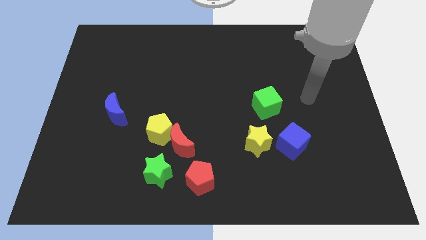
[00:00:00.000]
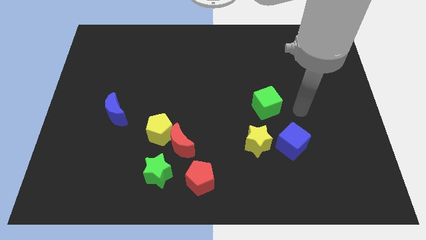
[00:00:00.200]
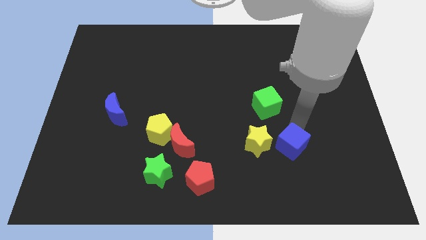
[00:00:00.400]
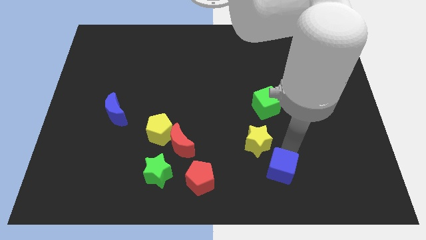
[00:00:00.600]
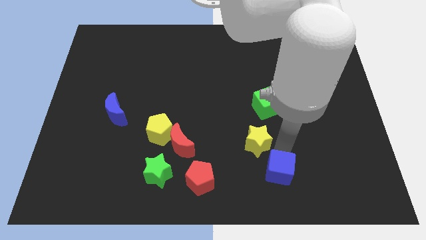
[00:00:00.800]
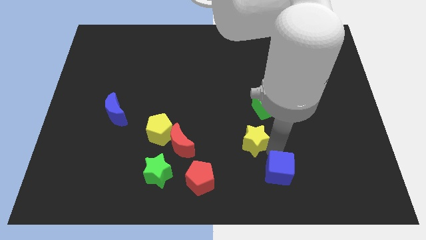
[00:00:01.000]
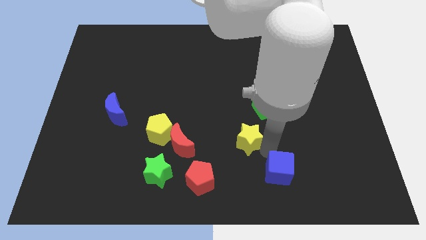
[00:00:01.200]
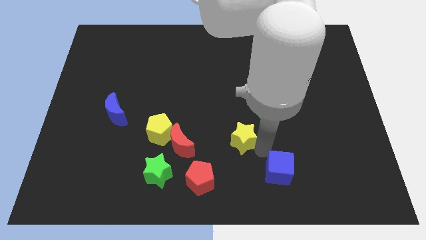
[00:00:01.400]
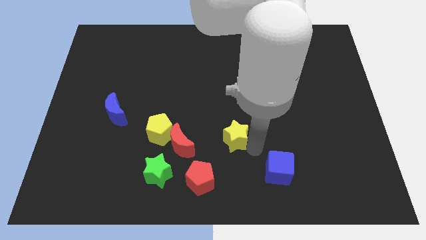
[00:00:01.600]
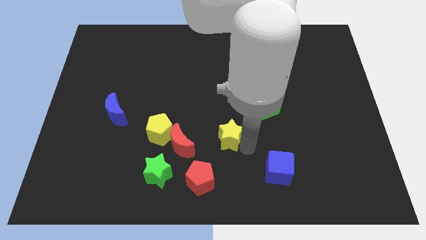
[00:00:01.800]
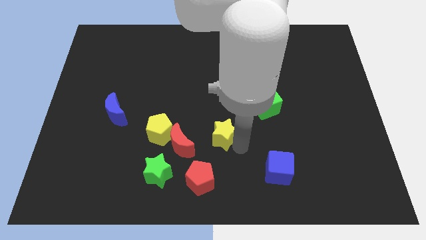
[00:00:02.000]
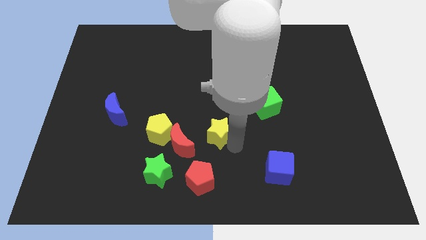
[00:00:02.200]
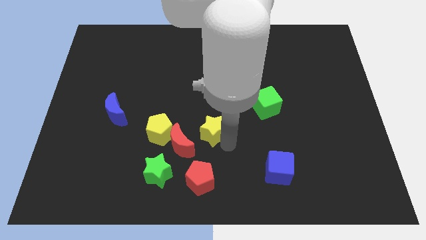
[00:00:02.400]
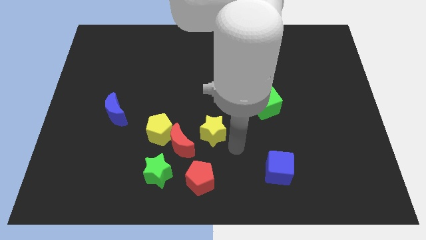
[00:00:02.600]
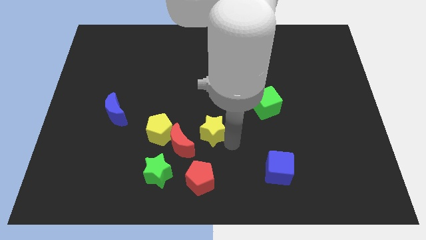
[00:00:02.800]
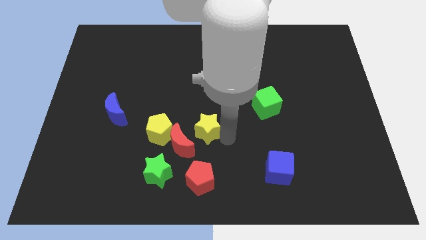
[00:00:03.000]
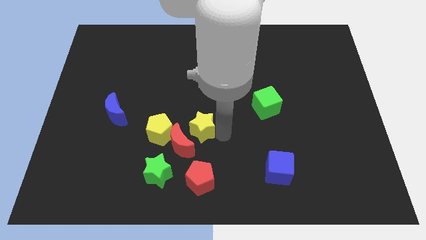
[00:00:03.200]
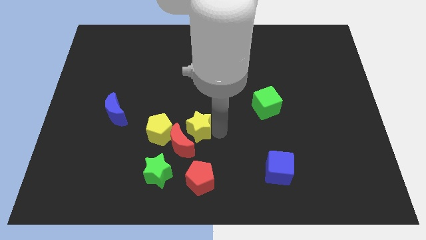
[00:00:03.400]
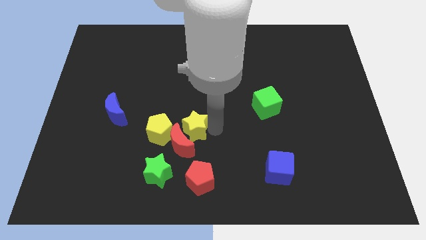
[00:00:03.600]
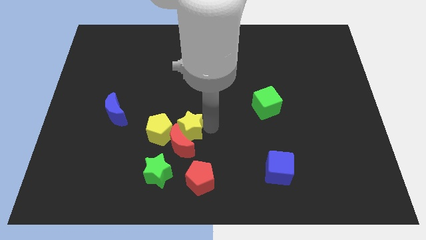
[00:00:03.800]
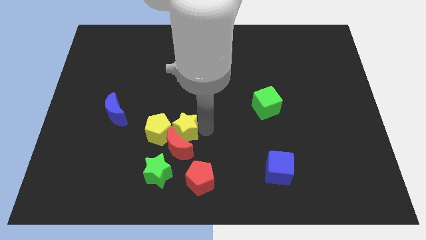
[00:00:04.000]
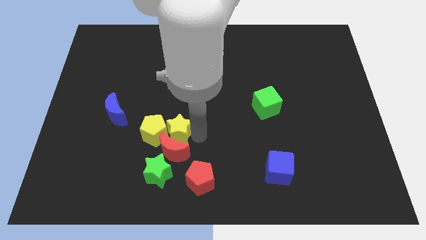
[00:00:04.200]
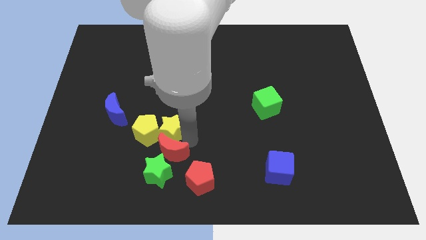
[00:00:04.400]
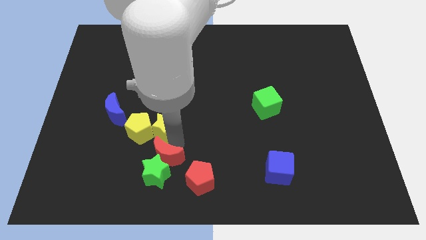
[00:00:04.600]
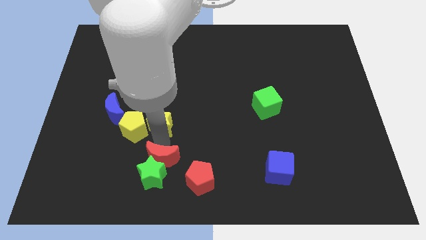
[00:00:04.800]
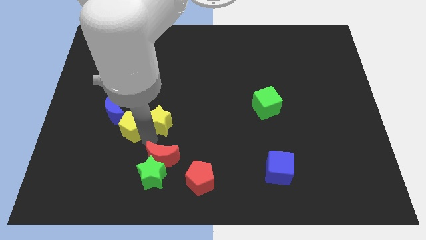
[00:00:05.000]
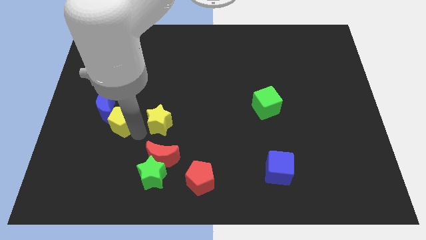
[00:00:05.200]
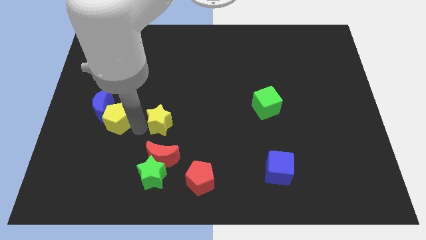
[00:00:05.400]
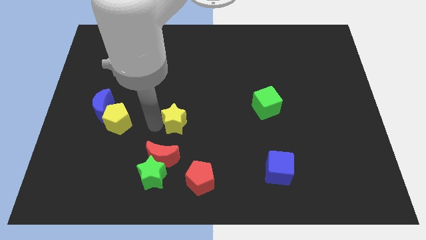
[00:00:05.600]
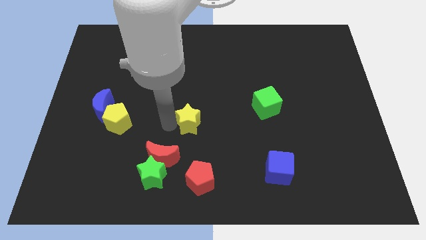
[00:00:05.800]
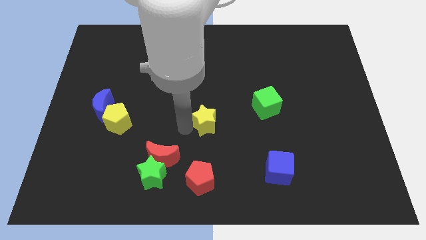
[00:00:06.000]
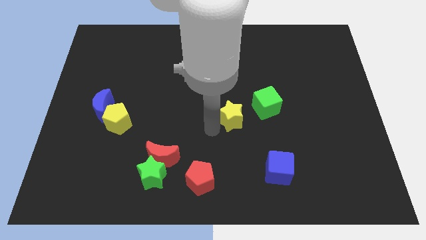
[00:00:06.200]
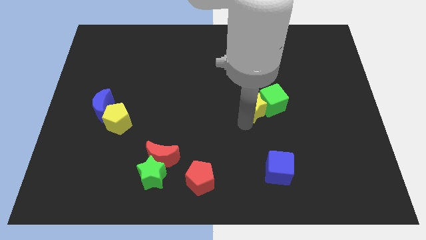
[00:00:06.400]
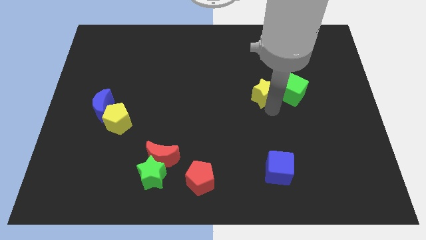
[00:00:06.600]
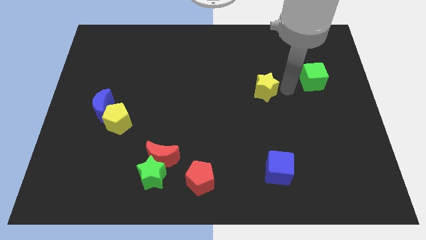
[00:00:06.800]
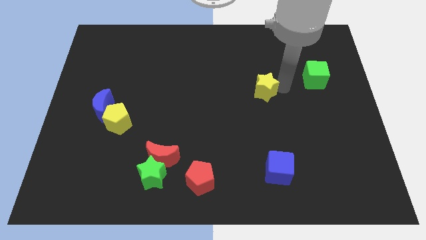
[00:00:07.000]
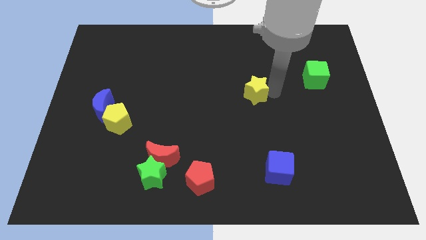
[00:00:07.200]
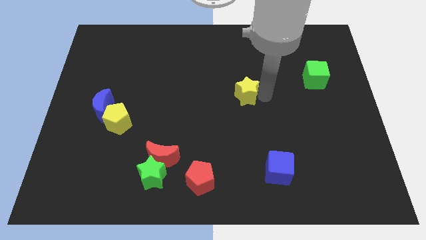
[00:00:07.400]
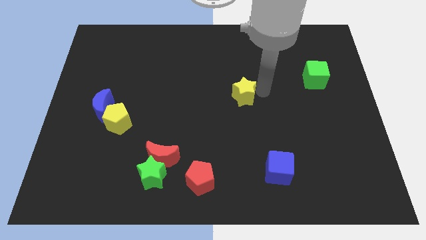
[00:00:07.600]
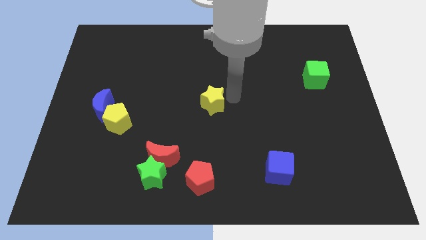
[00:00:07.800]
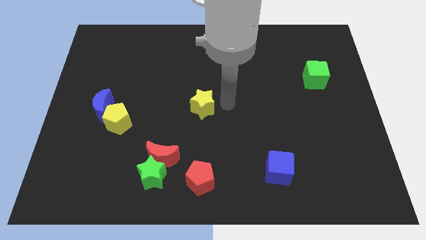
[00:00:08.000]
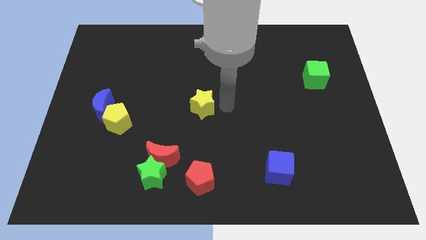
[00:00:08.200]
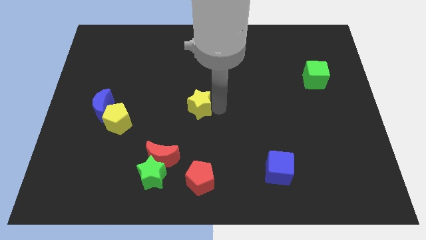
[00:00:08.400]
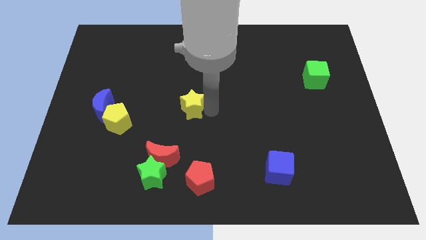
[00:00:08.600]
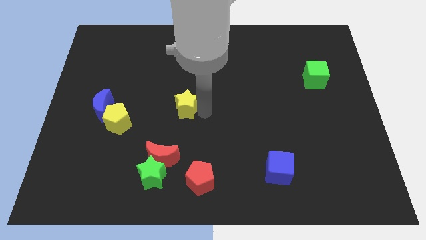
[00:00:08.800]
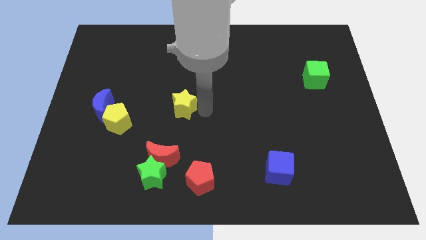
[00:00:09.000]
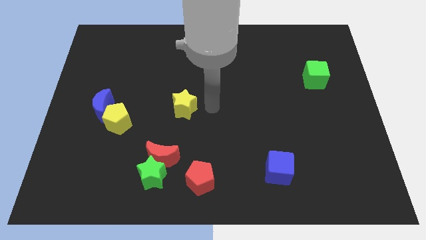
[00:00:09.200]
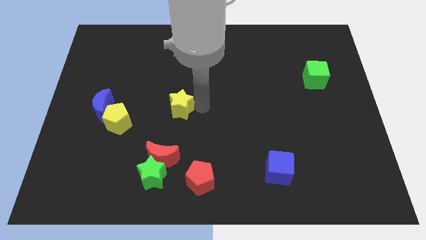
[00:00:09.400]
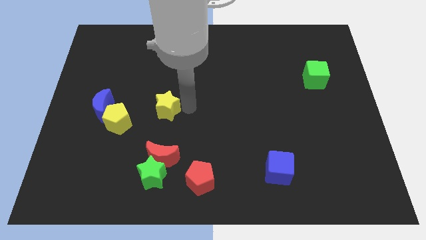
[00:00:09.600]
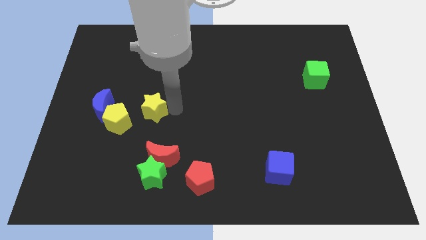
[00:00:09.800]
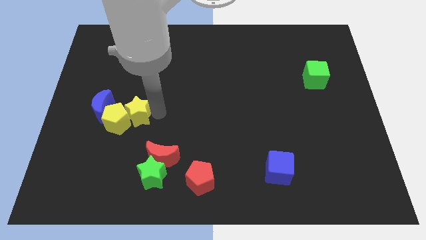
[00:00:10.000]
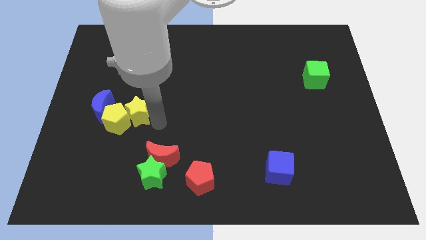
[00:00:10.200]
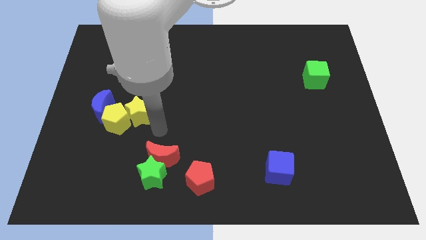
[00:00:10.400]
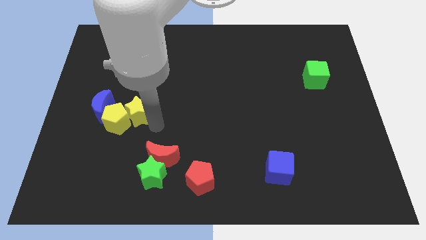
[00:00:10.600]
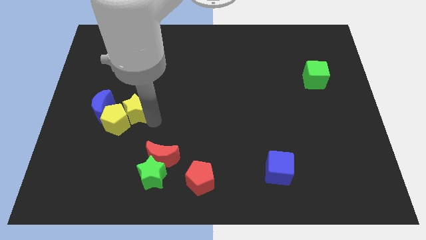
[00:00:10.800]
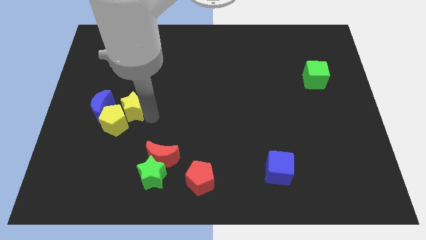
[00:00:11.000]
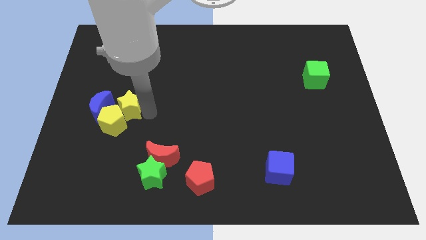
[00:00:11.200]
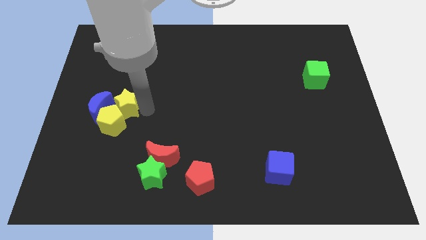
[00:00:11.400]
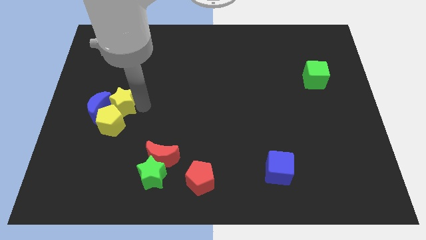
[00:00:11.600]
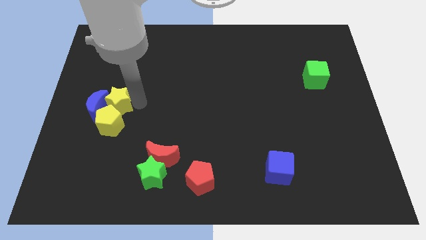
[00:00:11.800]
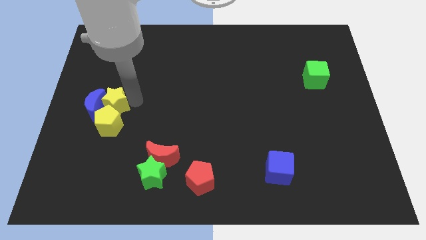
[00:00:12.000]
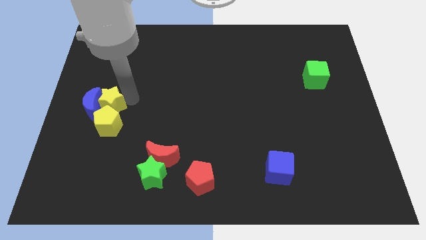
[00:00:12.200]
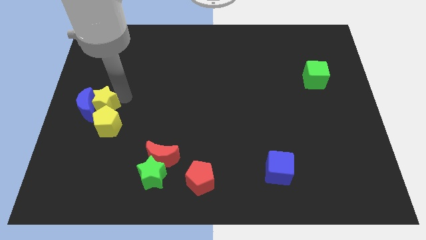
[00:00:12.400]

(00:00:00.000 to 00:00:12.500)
put the yellow star to the center left
